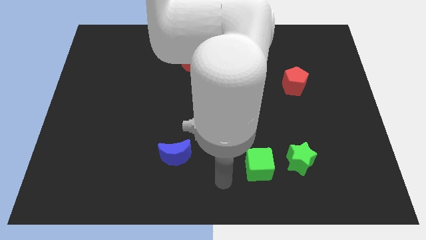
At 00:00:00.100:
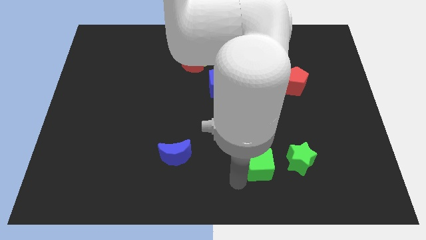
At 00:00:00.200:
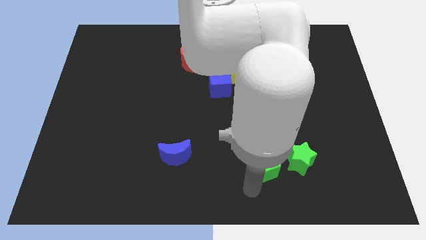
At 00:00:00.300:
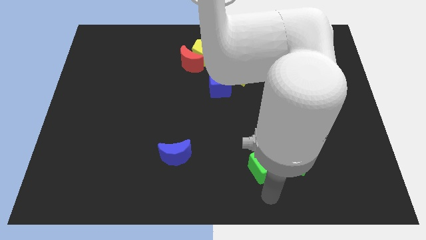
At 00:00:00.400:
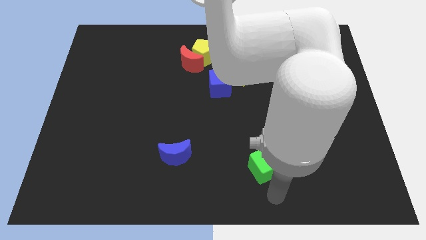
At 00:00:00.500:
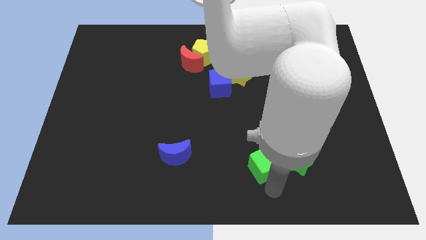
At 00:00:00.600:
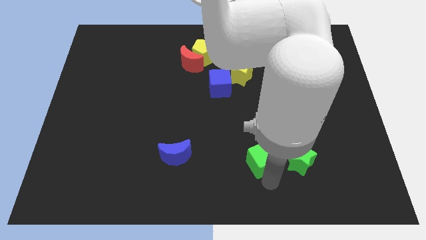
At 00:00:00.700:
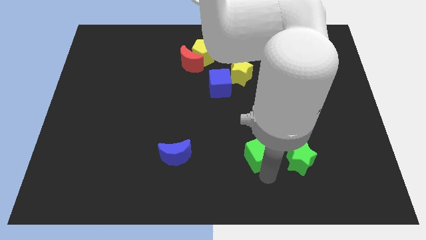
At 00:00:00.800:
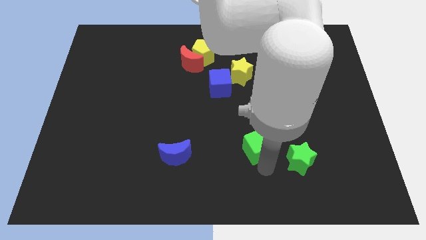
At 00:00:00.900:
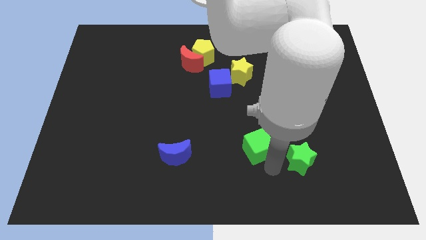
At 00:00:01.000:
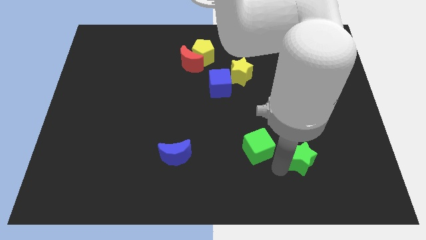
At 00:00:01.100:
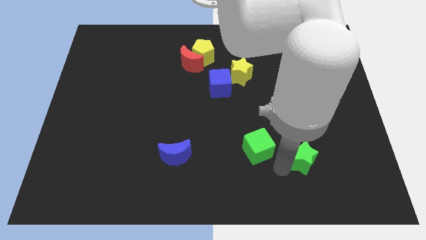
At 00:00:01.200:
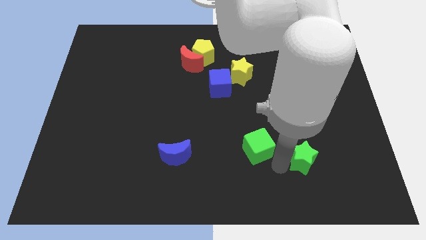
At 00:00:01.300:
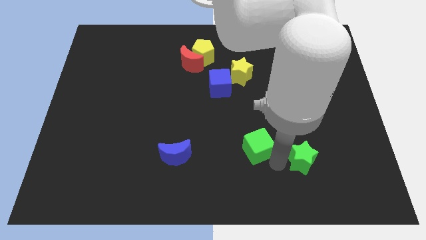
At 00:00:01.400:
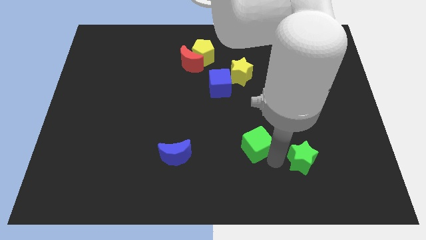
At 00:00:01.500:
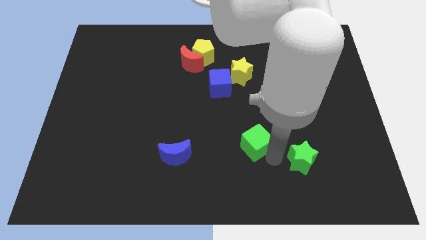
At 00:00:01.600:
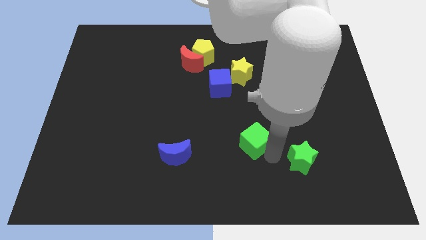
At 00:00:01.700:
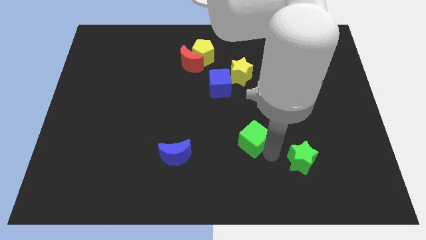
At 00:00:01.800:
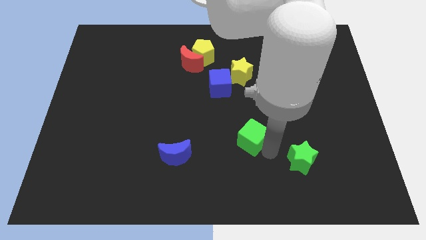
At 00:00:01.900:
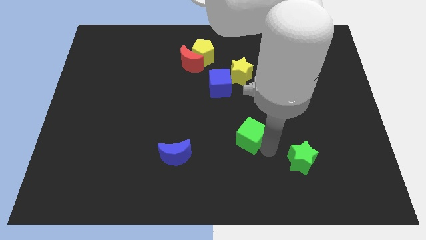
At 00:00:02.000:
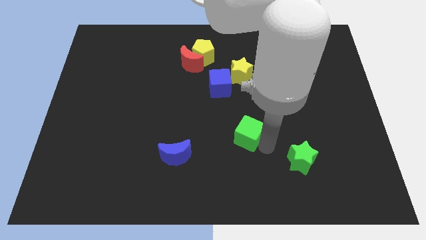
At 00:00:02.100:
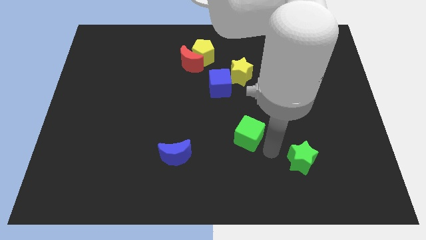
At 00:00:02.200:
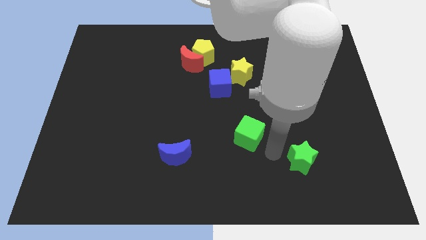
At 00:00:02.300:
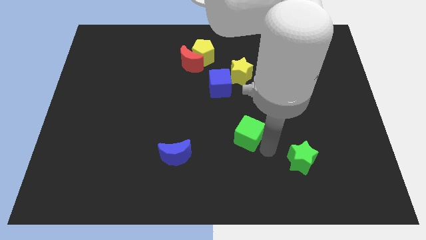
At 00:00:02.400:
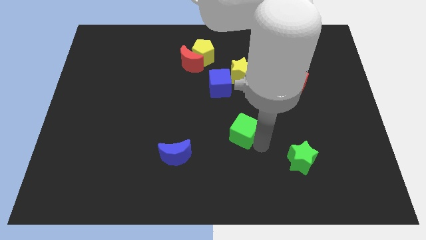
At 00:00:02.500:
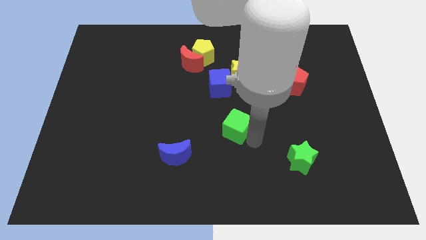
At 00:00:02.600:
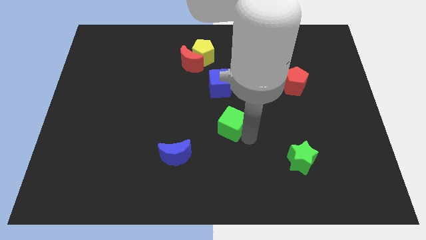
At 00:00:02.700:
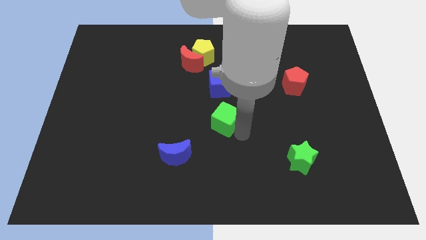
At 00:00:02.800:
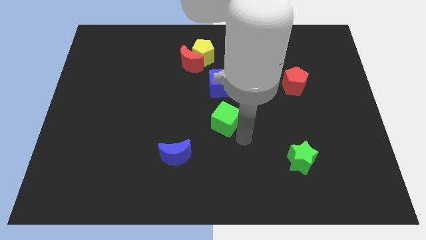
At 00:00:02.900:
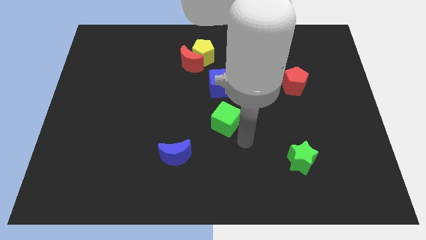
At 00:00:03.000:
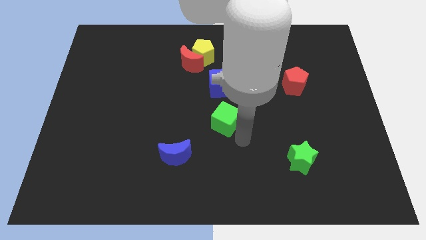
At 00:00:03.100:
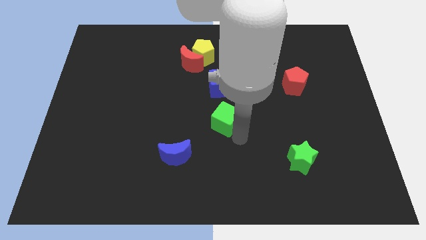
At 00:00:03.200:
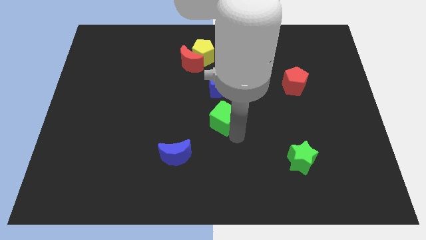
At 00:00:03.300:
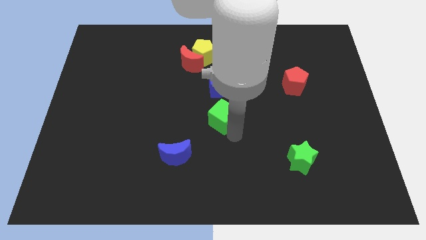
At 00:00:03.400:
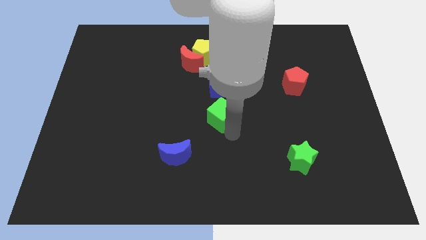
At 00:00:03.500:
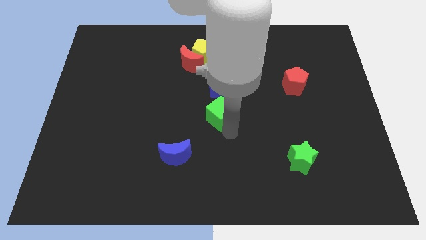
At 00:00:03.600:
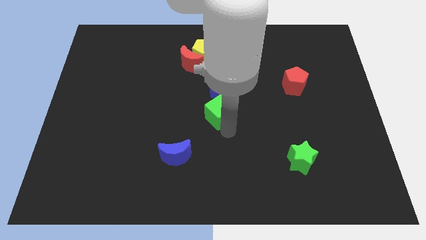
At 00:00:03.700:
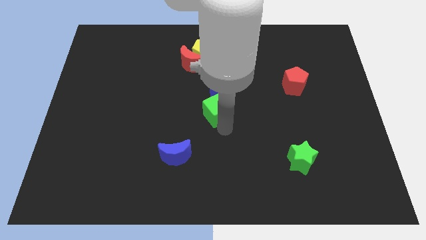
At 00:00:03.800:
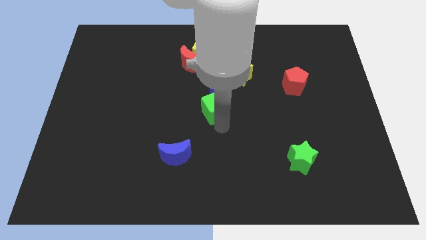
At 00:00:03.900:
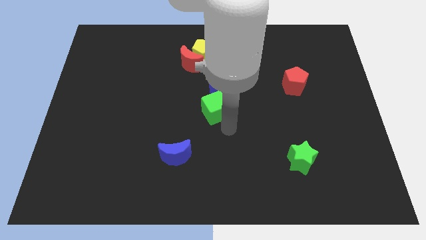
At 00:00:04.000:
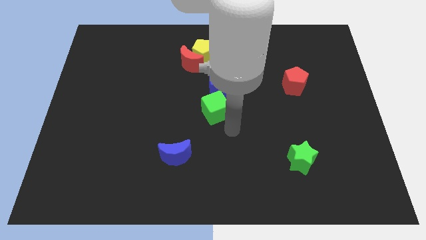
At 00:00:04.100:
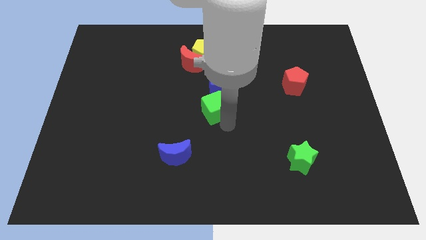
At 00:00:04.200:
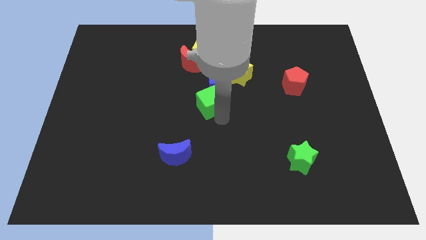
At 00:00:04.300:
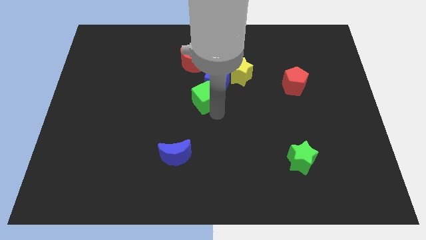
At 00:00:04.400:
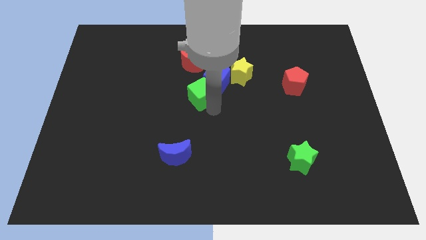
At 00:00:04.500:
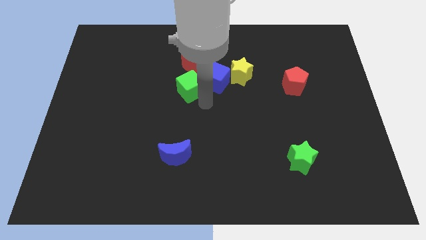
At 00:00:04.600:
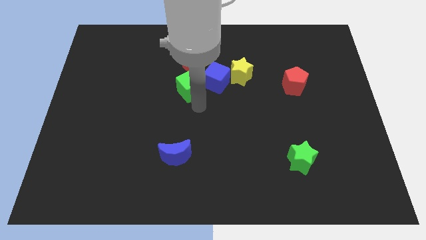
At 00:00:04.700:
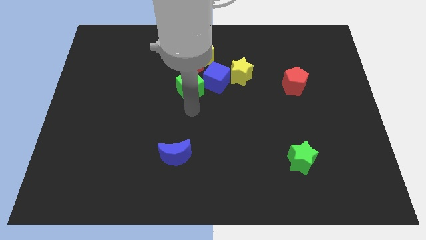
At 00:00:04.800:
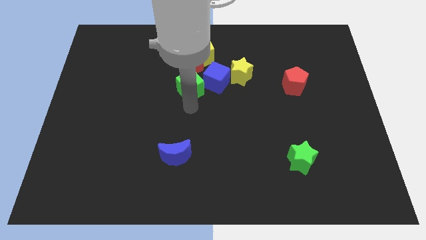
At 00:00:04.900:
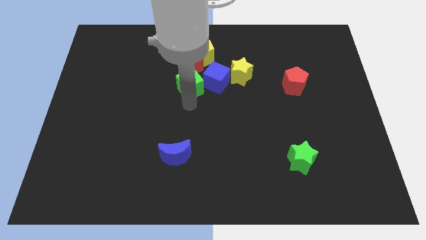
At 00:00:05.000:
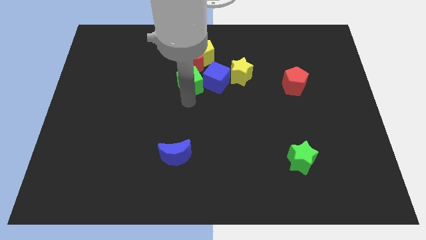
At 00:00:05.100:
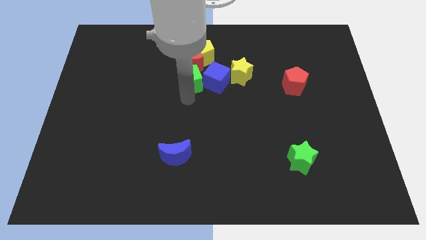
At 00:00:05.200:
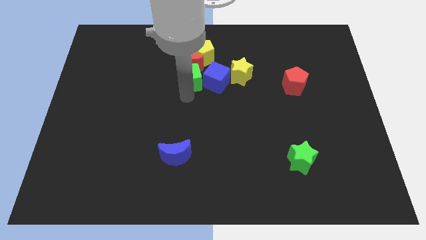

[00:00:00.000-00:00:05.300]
move the green cube next to the red moon

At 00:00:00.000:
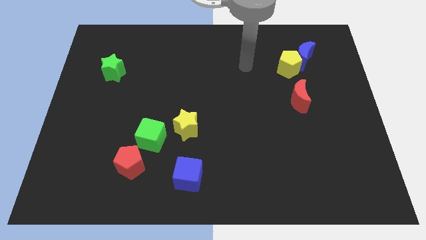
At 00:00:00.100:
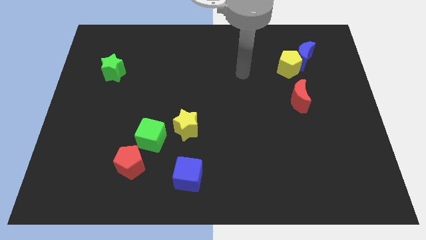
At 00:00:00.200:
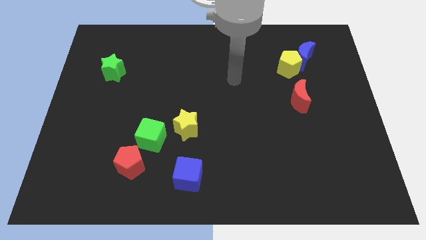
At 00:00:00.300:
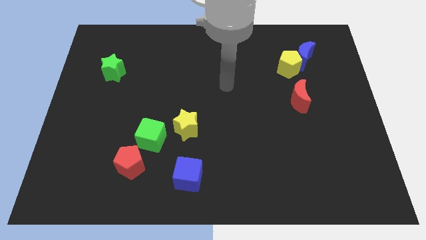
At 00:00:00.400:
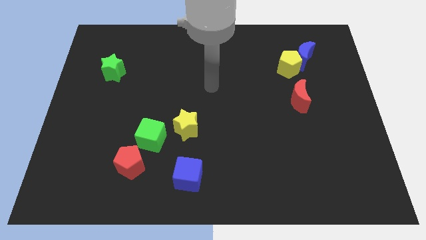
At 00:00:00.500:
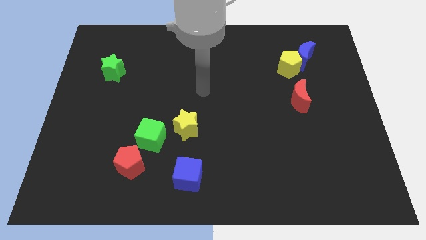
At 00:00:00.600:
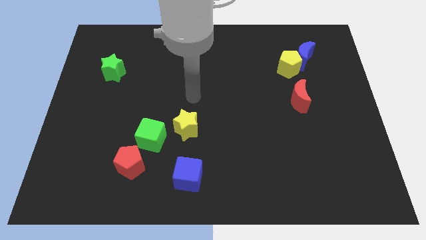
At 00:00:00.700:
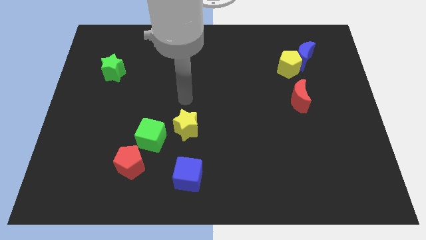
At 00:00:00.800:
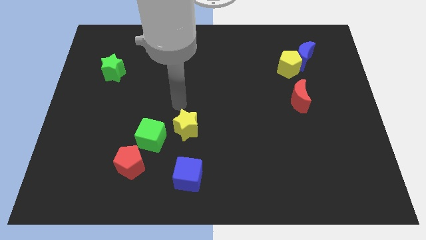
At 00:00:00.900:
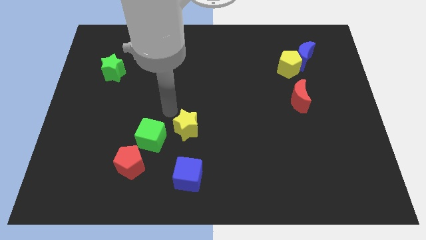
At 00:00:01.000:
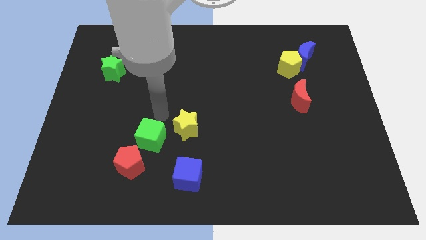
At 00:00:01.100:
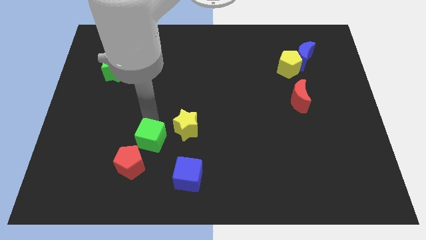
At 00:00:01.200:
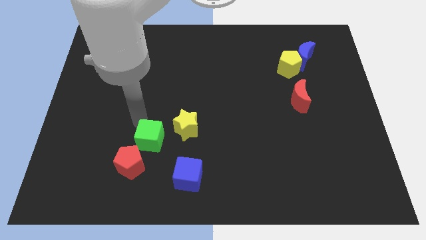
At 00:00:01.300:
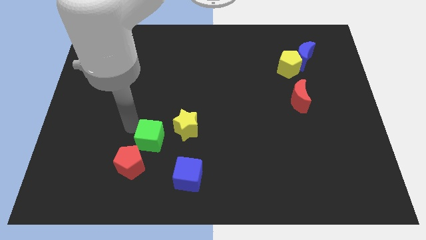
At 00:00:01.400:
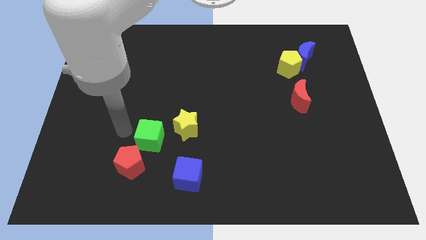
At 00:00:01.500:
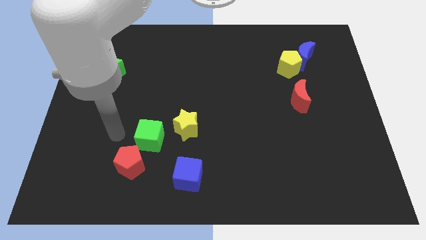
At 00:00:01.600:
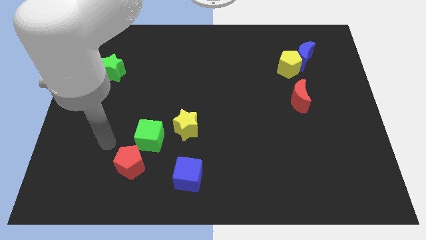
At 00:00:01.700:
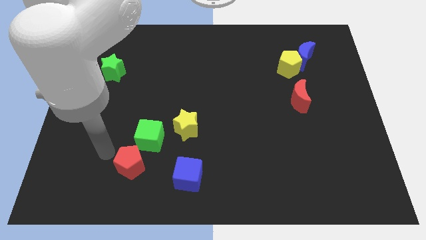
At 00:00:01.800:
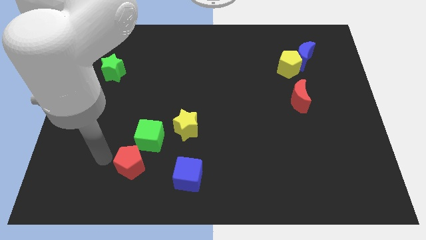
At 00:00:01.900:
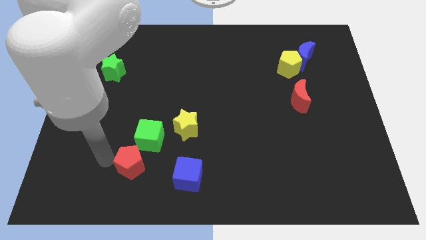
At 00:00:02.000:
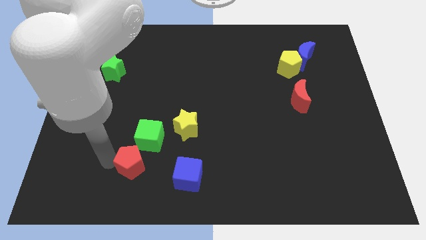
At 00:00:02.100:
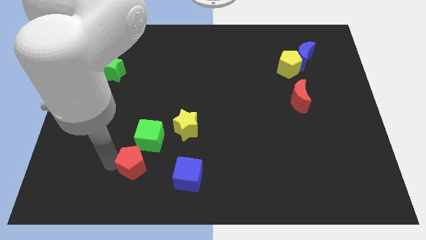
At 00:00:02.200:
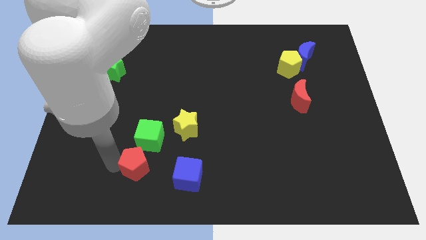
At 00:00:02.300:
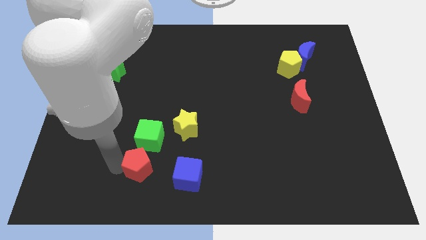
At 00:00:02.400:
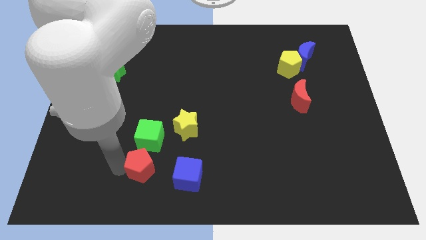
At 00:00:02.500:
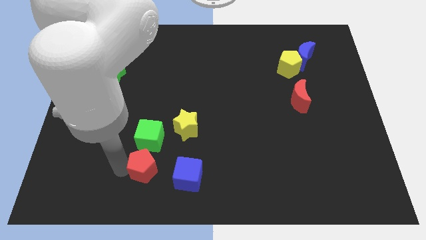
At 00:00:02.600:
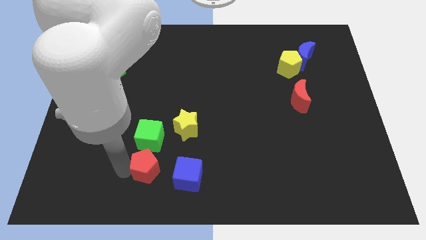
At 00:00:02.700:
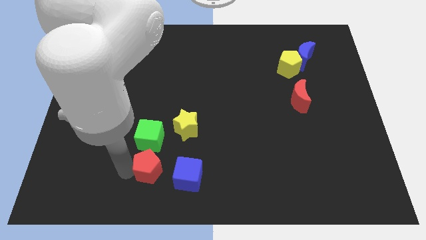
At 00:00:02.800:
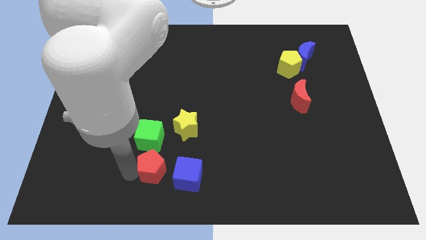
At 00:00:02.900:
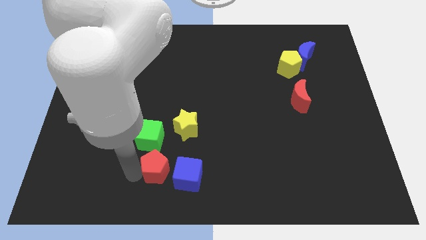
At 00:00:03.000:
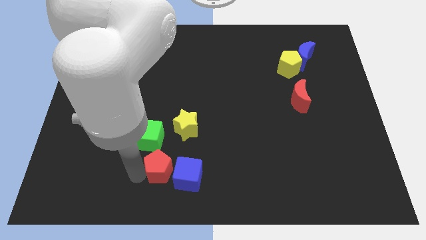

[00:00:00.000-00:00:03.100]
slide the red pentagon towards the blue cube
